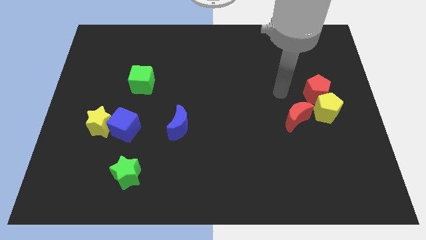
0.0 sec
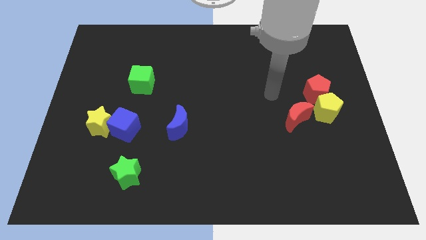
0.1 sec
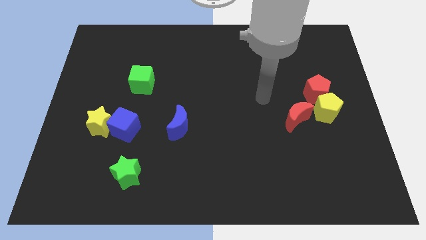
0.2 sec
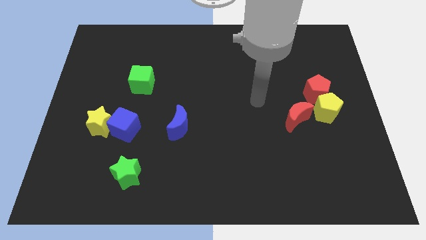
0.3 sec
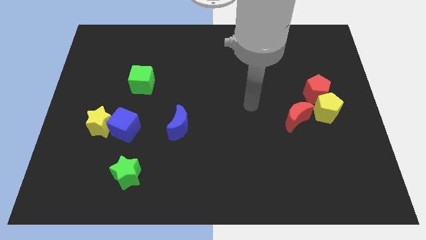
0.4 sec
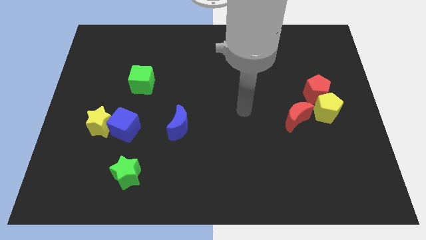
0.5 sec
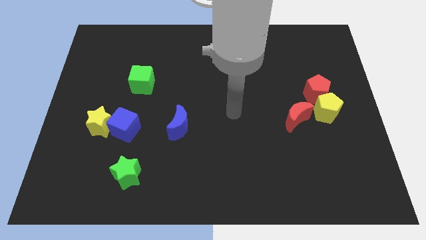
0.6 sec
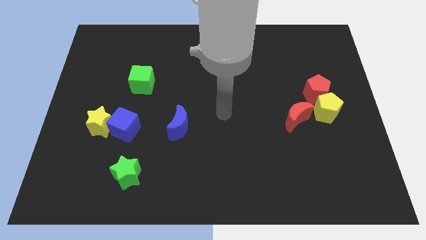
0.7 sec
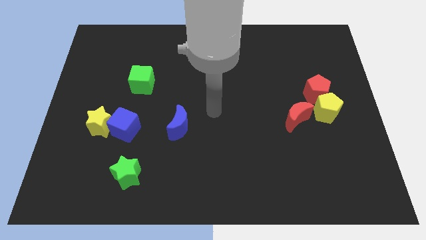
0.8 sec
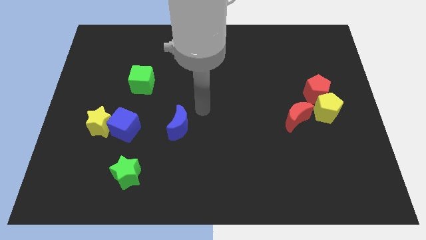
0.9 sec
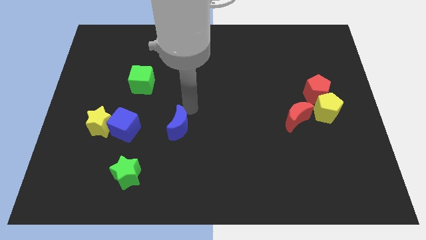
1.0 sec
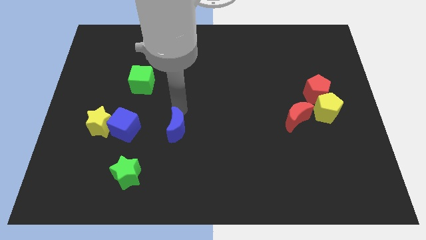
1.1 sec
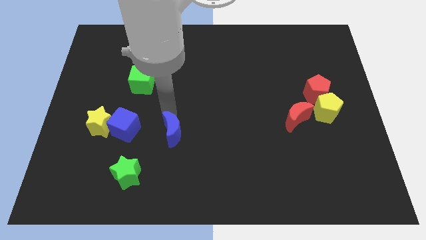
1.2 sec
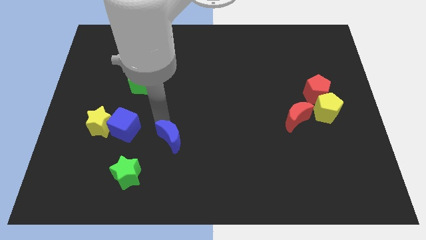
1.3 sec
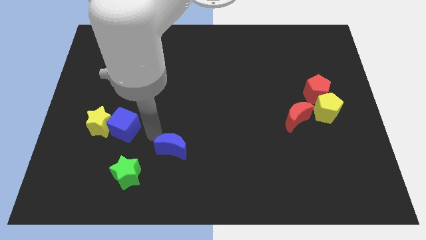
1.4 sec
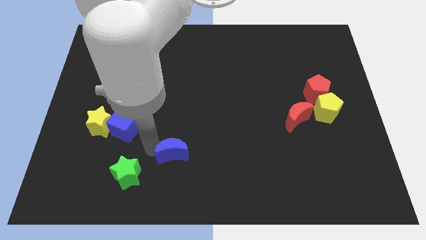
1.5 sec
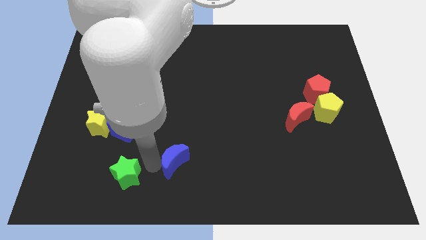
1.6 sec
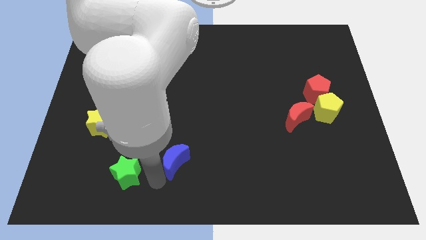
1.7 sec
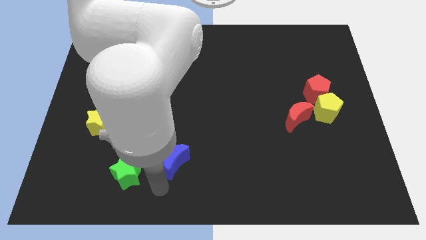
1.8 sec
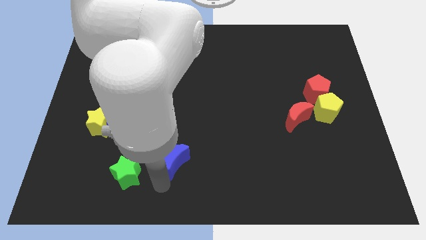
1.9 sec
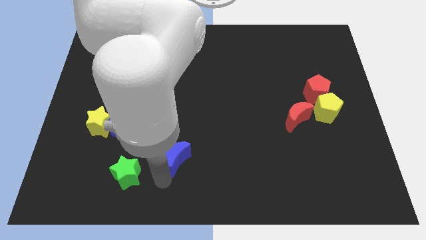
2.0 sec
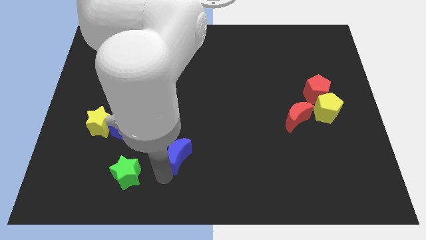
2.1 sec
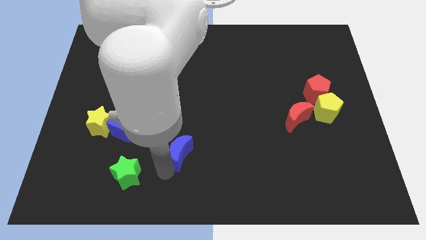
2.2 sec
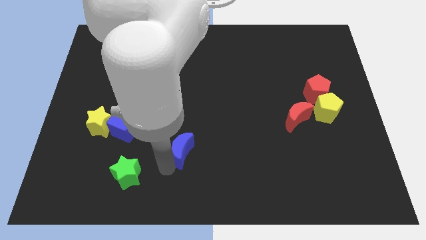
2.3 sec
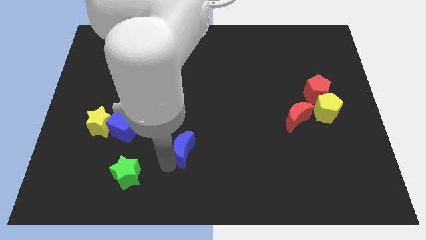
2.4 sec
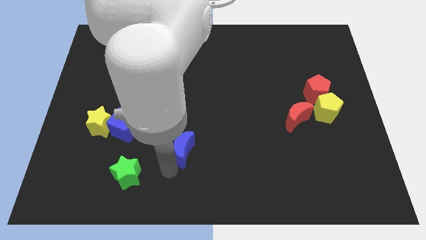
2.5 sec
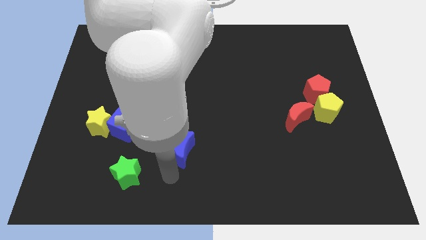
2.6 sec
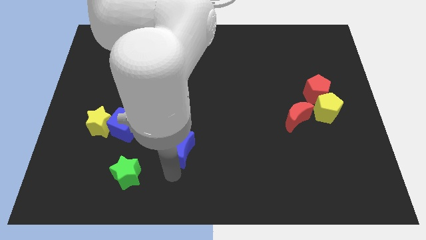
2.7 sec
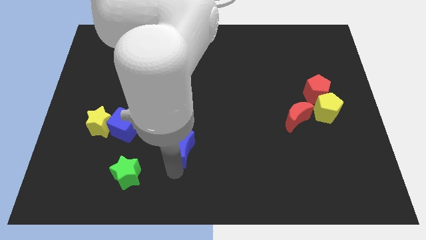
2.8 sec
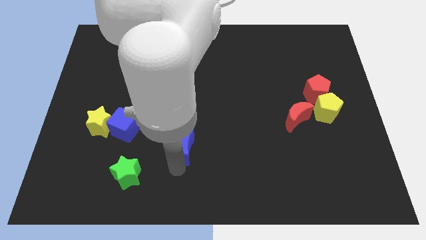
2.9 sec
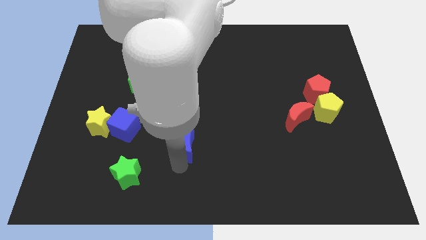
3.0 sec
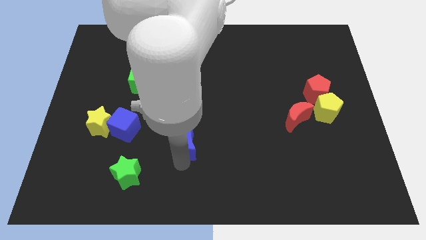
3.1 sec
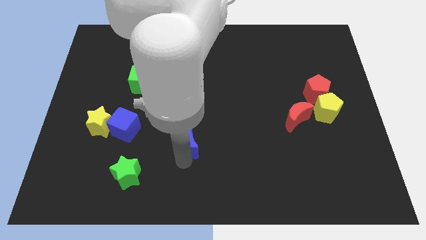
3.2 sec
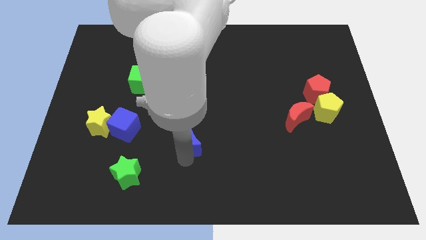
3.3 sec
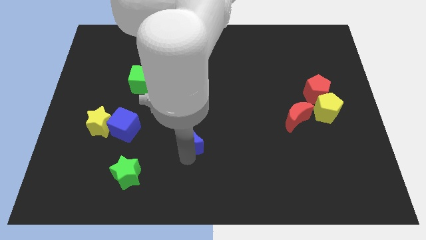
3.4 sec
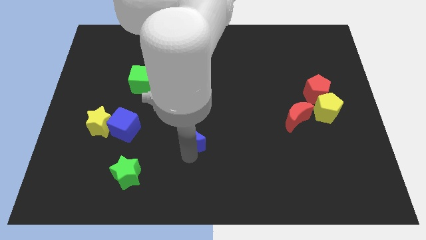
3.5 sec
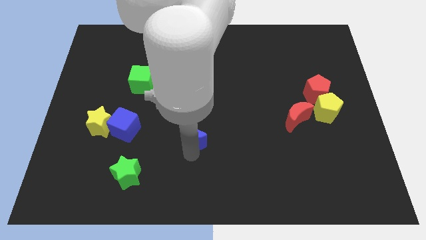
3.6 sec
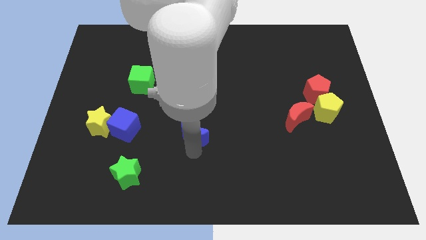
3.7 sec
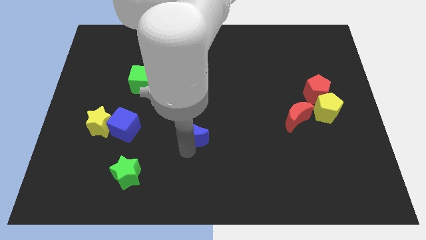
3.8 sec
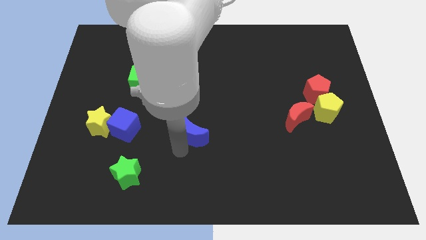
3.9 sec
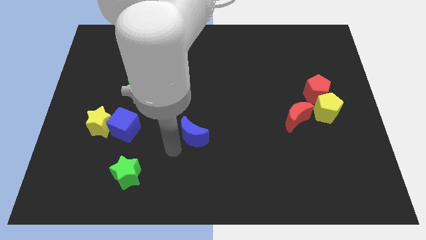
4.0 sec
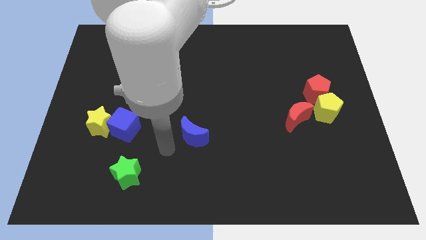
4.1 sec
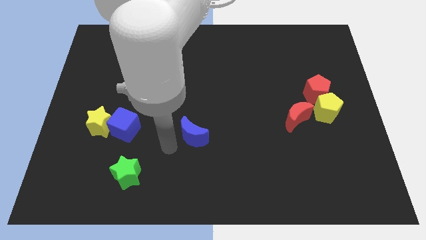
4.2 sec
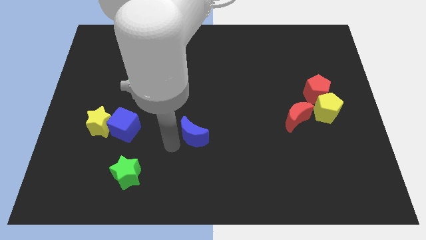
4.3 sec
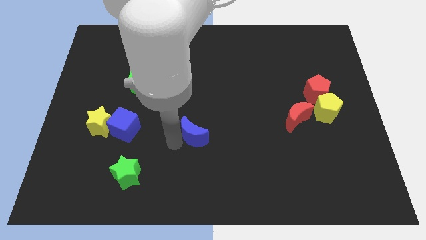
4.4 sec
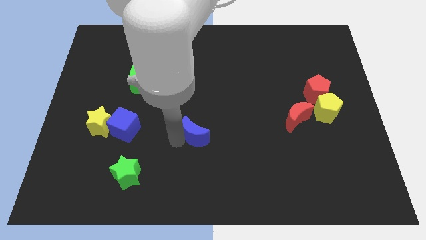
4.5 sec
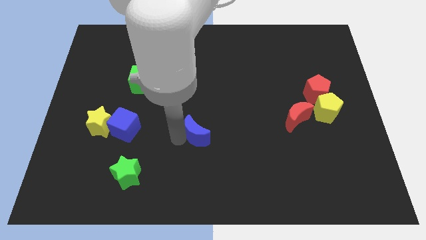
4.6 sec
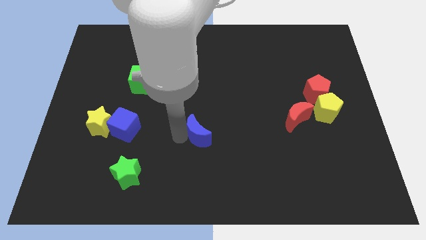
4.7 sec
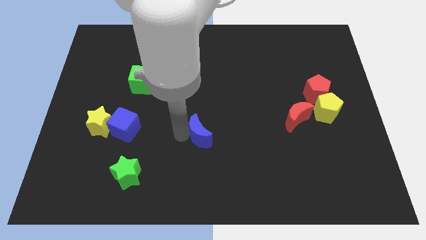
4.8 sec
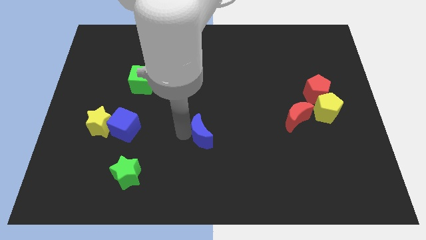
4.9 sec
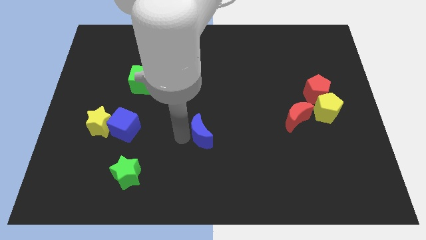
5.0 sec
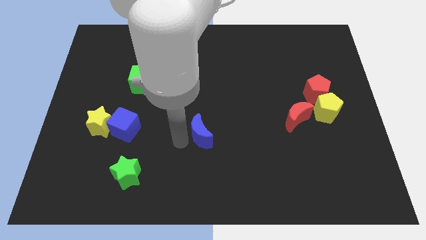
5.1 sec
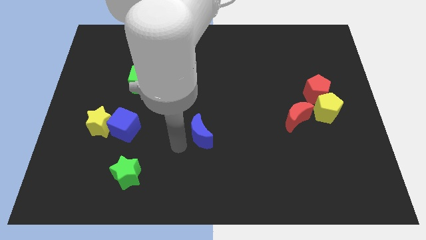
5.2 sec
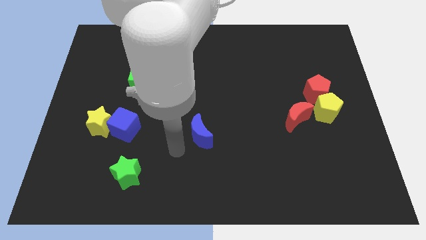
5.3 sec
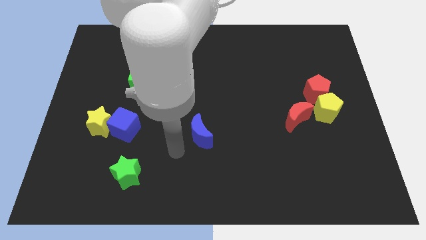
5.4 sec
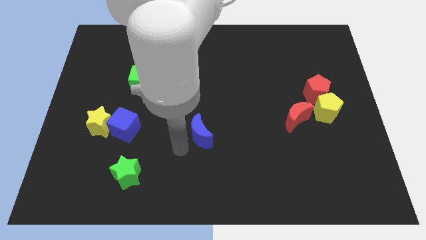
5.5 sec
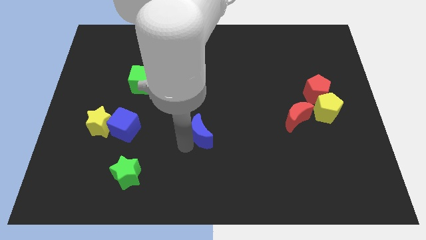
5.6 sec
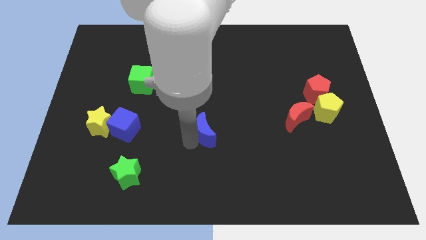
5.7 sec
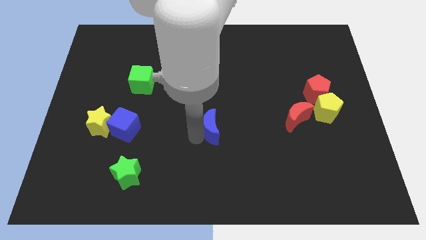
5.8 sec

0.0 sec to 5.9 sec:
slide the blue moon right a bit

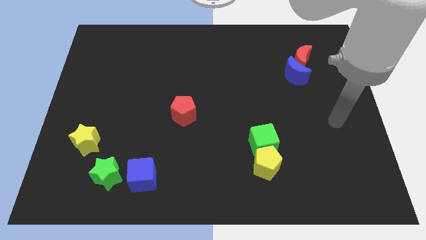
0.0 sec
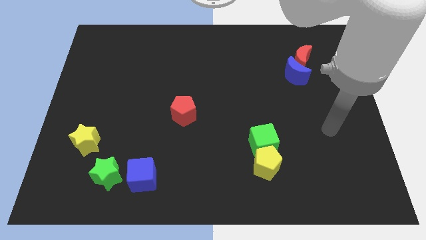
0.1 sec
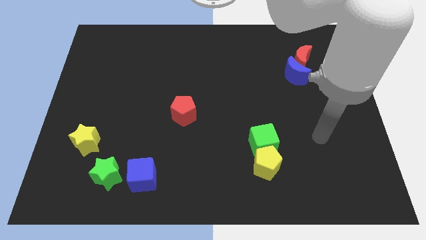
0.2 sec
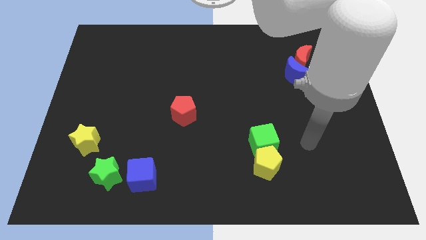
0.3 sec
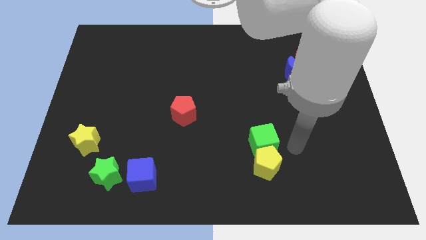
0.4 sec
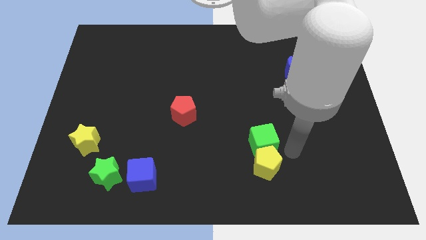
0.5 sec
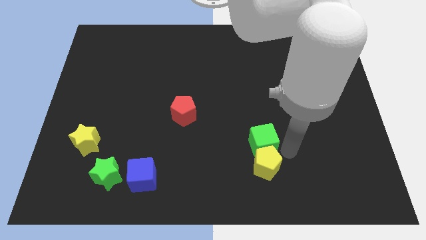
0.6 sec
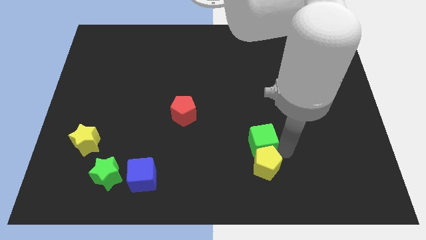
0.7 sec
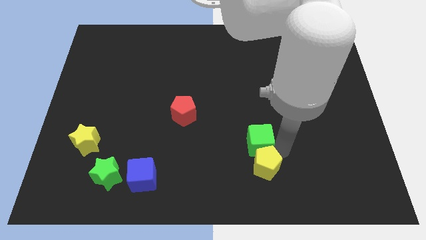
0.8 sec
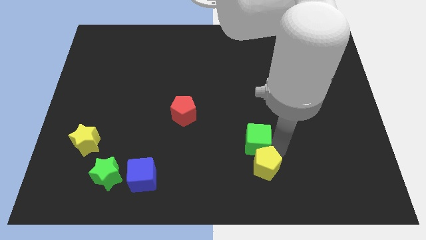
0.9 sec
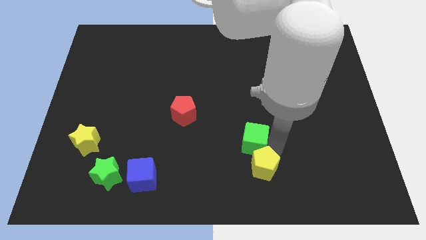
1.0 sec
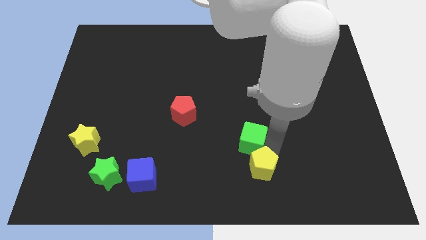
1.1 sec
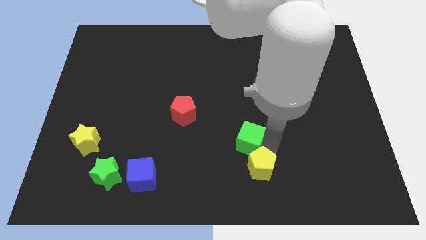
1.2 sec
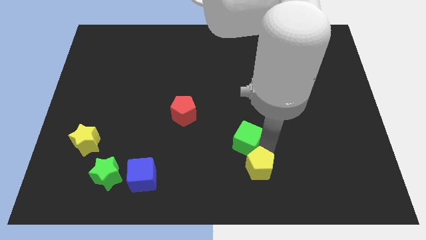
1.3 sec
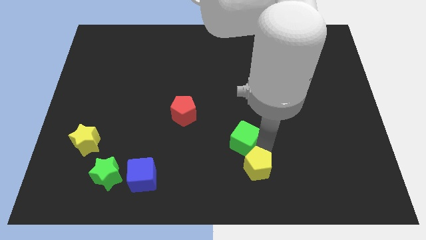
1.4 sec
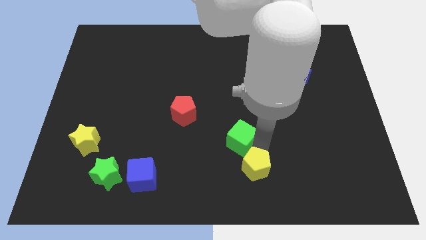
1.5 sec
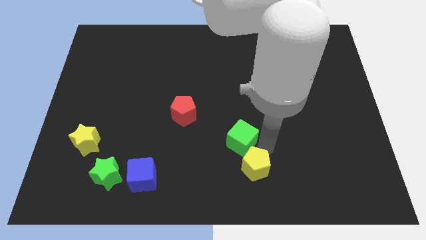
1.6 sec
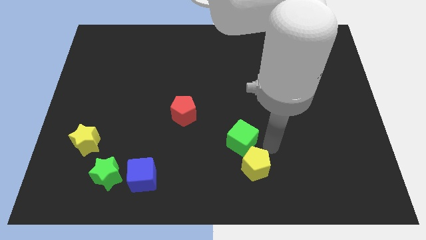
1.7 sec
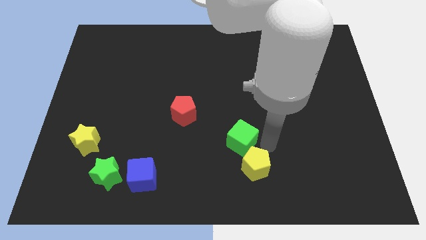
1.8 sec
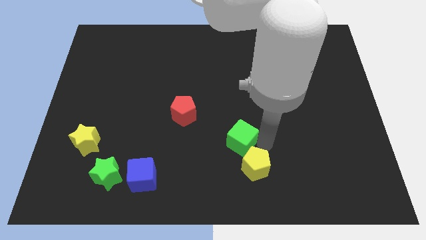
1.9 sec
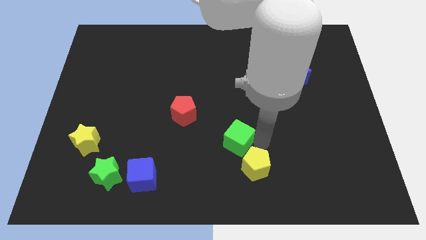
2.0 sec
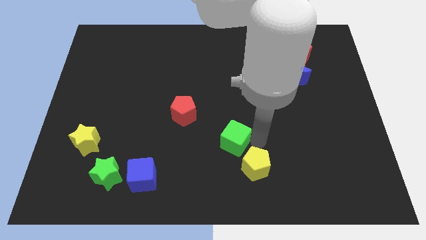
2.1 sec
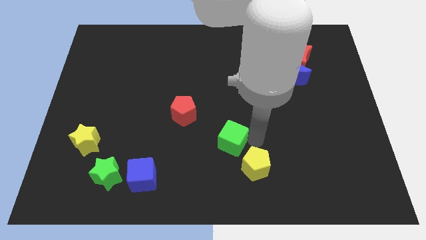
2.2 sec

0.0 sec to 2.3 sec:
push the green cube to the left a little

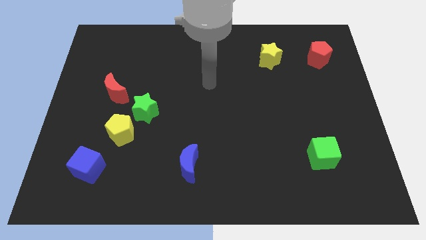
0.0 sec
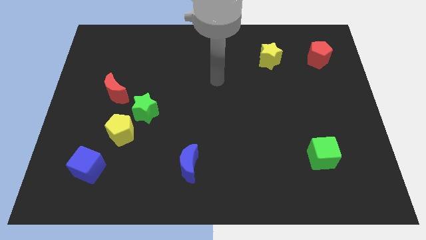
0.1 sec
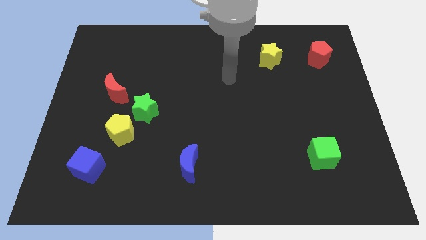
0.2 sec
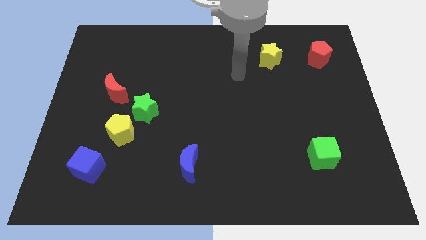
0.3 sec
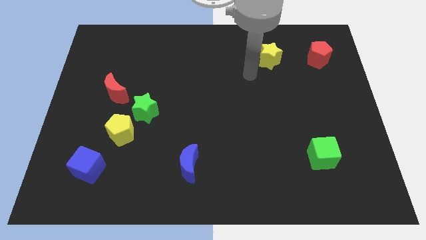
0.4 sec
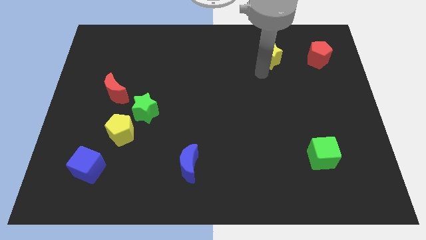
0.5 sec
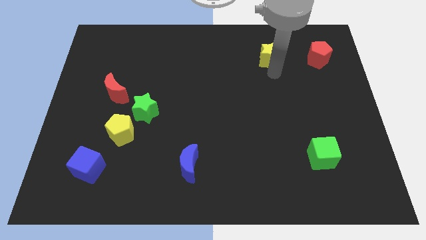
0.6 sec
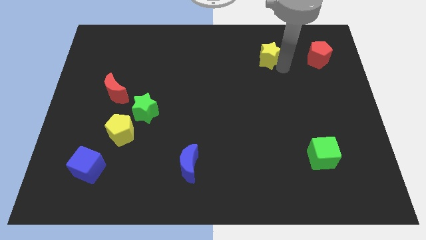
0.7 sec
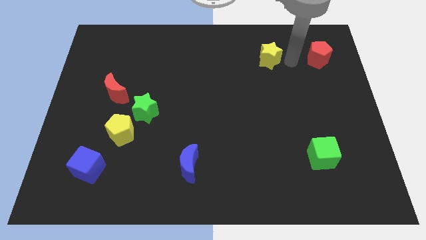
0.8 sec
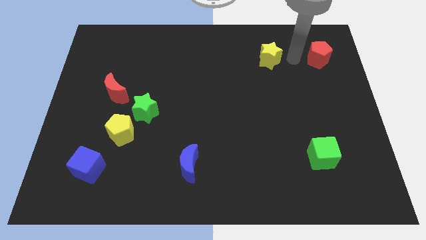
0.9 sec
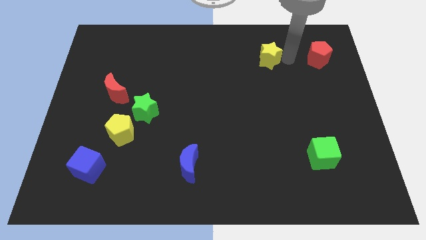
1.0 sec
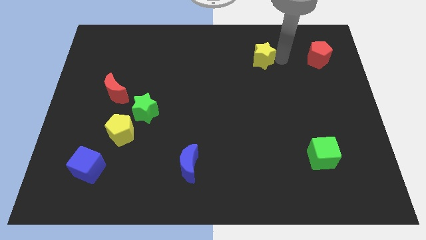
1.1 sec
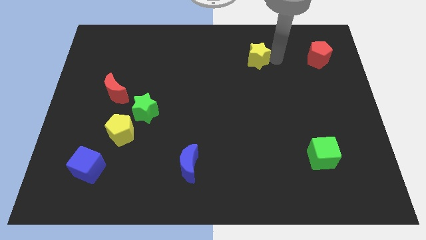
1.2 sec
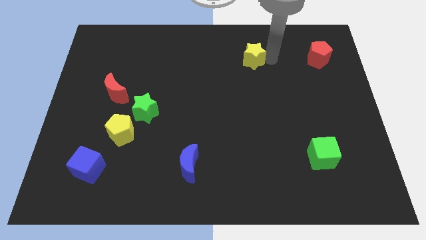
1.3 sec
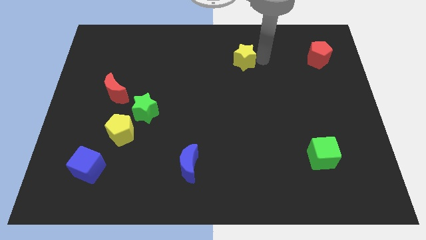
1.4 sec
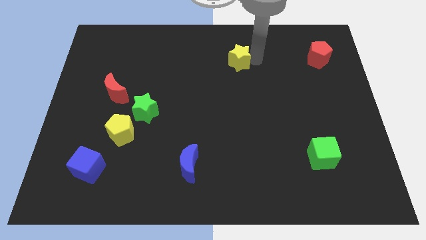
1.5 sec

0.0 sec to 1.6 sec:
slide the yellow star to the left a little bit
